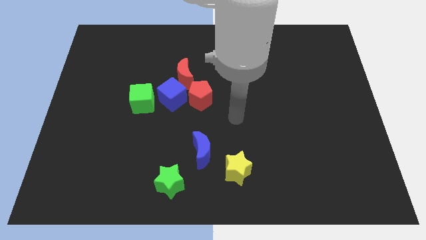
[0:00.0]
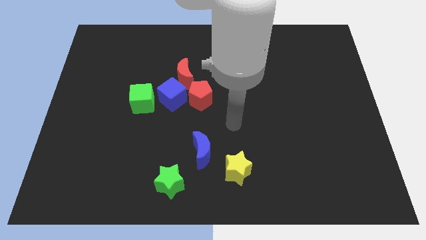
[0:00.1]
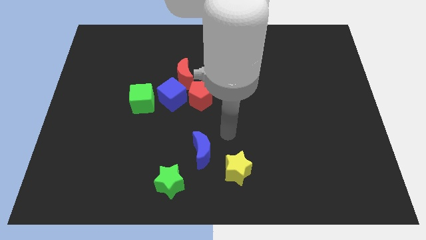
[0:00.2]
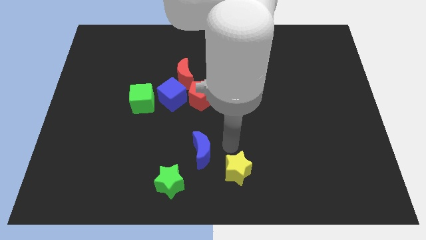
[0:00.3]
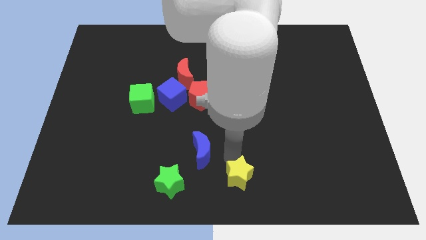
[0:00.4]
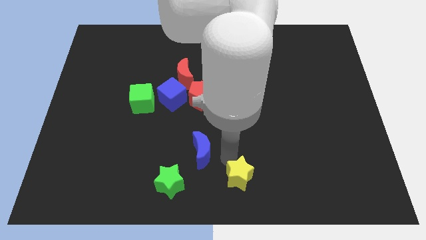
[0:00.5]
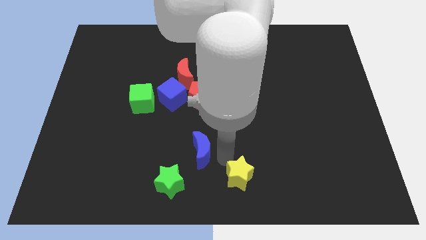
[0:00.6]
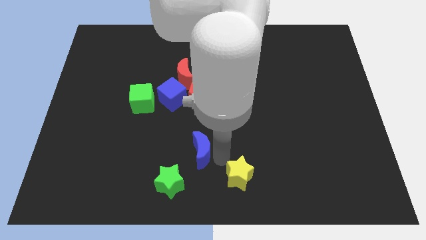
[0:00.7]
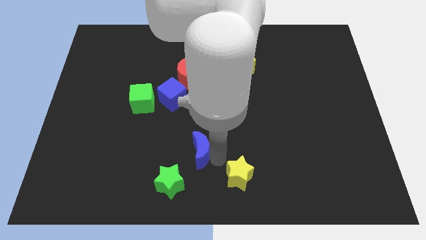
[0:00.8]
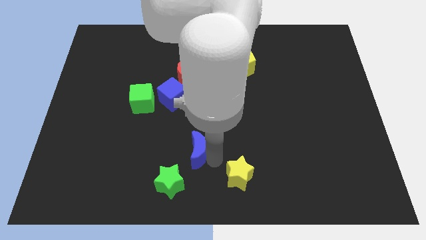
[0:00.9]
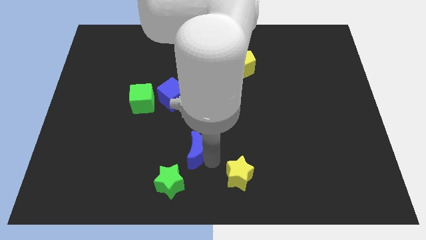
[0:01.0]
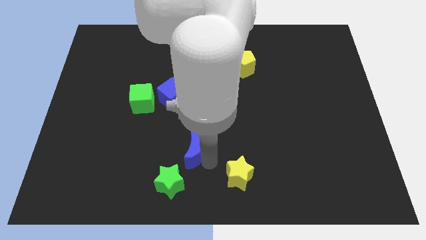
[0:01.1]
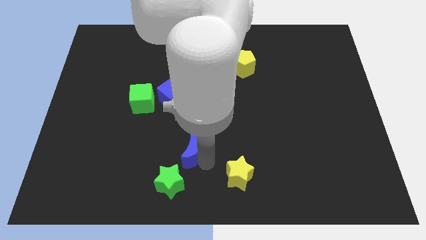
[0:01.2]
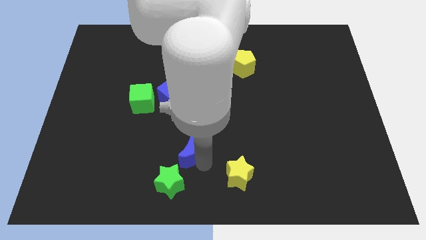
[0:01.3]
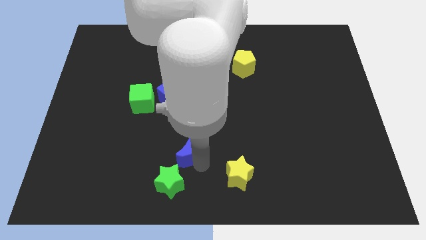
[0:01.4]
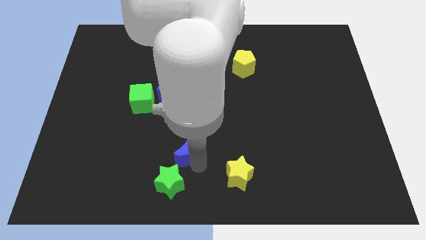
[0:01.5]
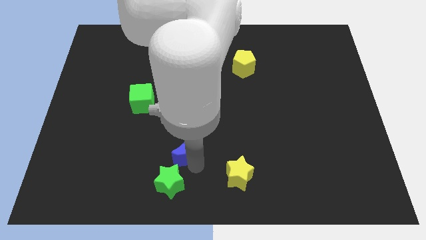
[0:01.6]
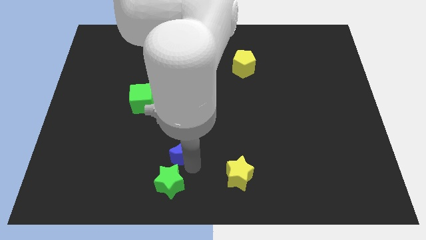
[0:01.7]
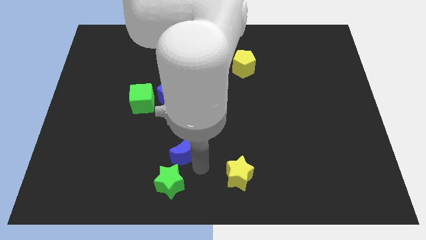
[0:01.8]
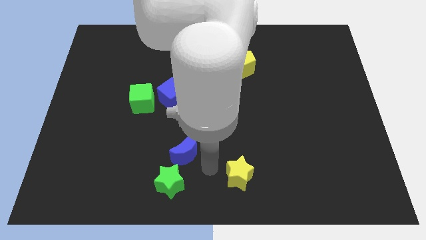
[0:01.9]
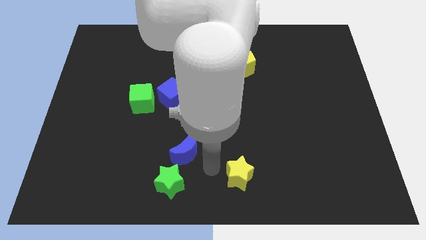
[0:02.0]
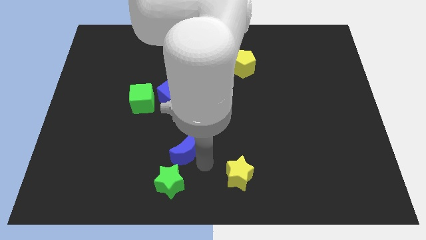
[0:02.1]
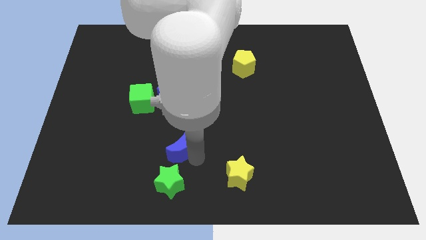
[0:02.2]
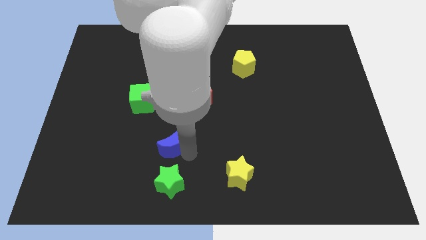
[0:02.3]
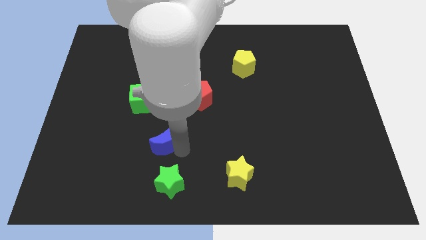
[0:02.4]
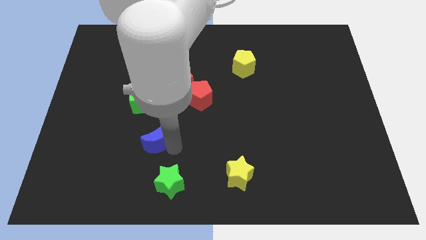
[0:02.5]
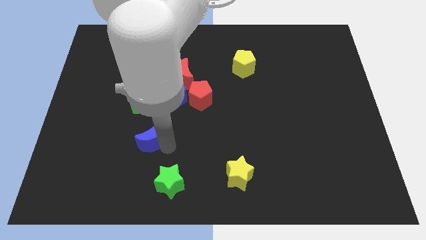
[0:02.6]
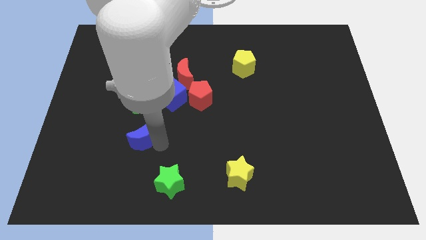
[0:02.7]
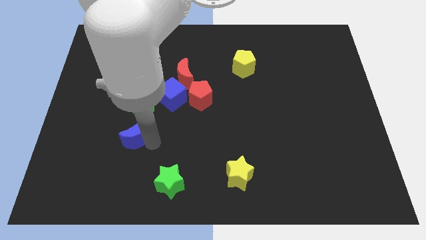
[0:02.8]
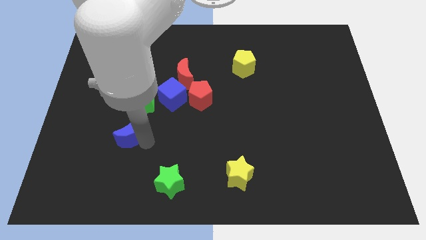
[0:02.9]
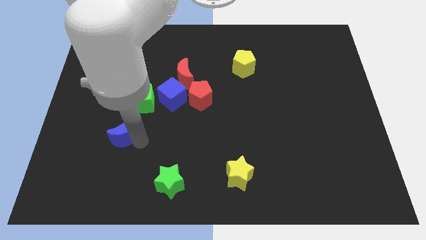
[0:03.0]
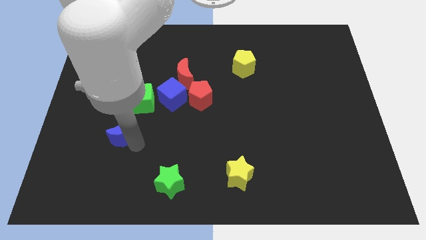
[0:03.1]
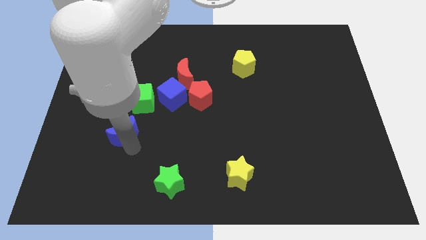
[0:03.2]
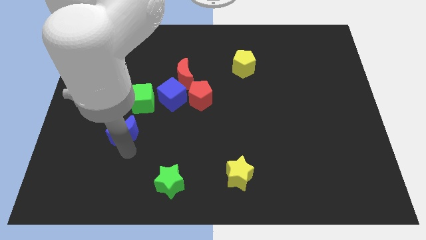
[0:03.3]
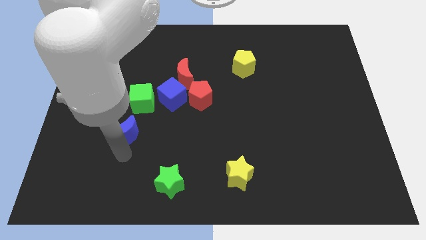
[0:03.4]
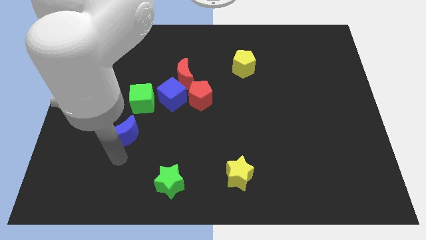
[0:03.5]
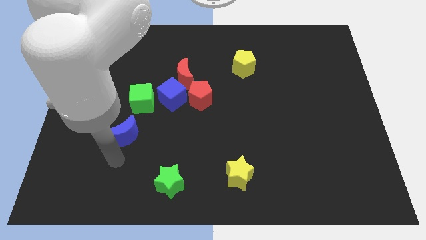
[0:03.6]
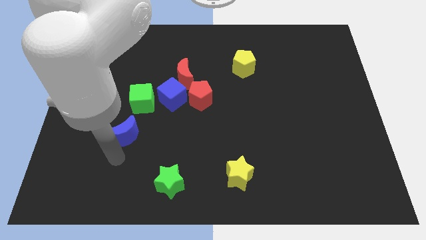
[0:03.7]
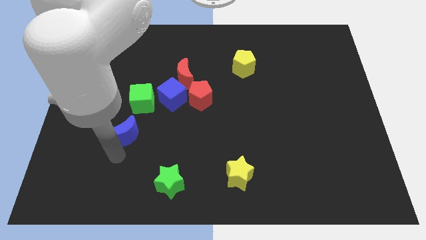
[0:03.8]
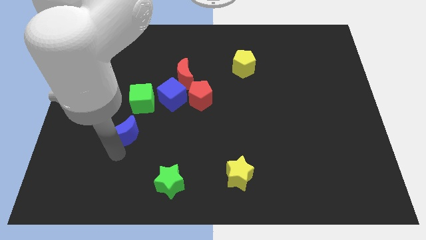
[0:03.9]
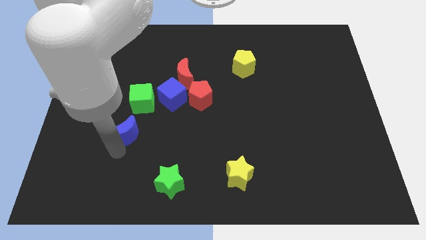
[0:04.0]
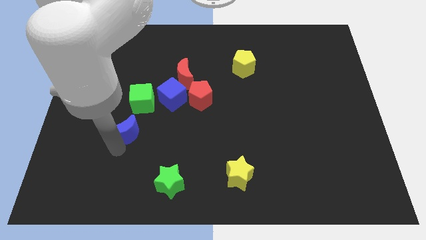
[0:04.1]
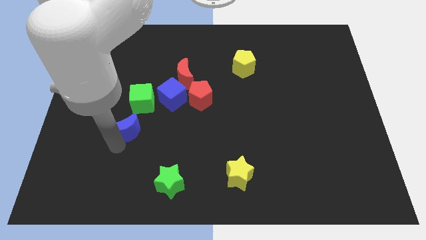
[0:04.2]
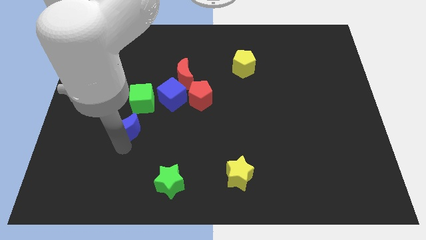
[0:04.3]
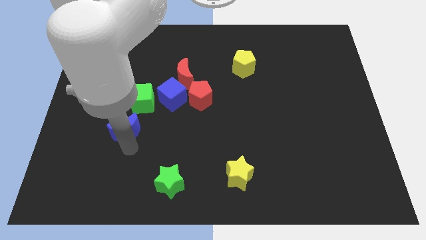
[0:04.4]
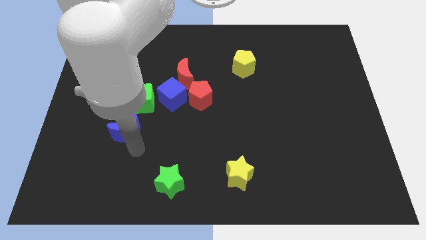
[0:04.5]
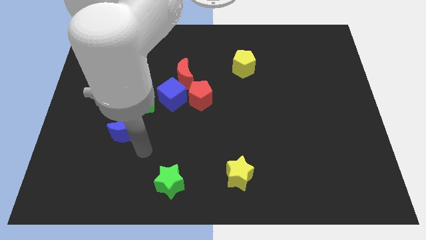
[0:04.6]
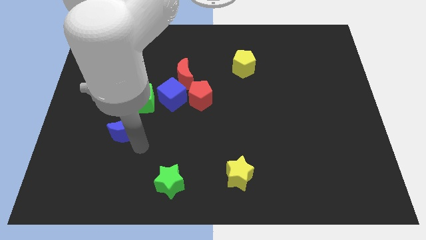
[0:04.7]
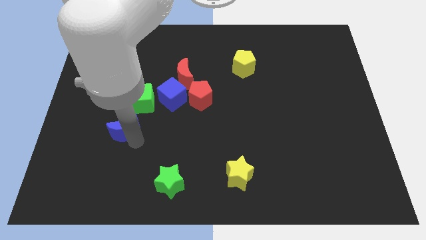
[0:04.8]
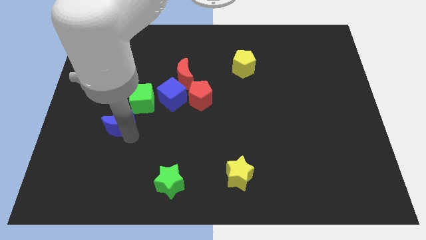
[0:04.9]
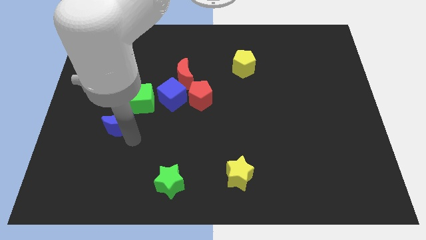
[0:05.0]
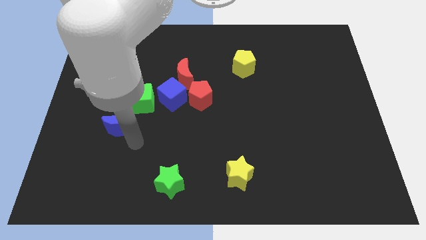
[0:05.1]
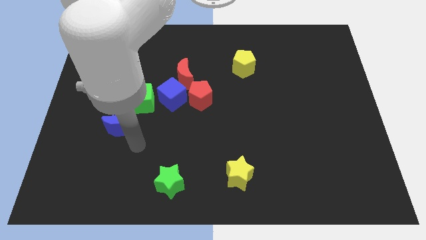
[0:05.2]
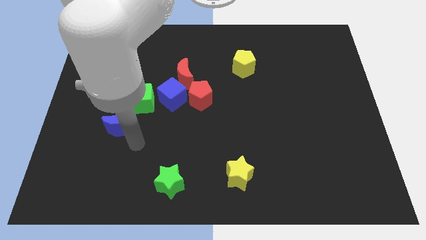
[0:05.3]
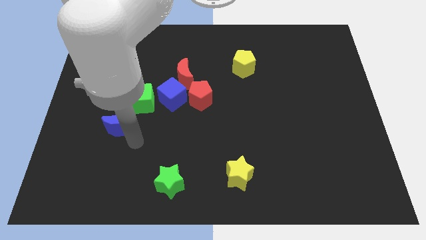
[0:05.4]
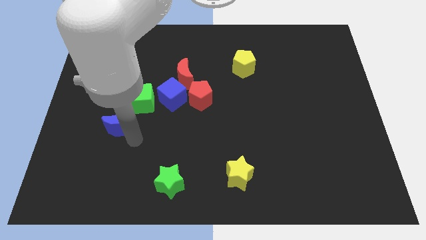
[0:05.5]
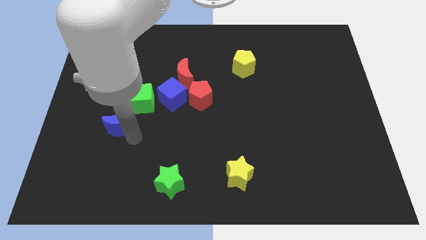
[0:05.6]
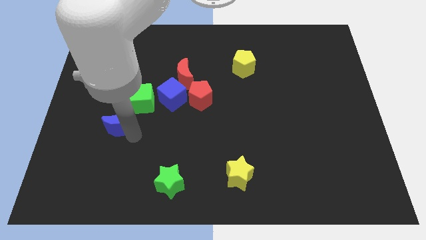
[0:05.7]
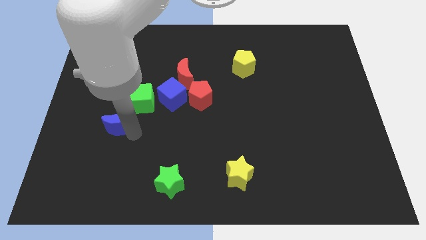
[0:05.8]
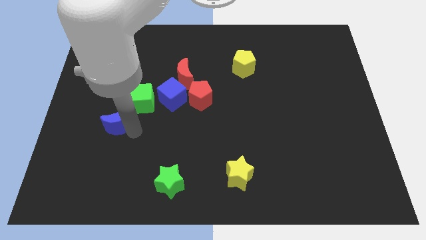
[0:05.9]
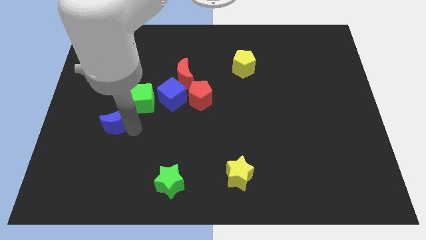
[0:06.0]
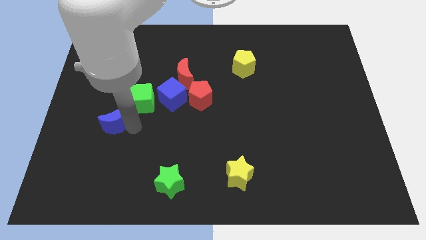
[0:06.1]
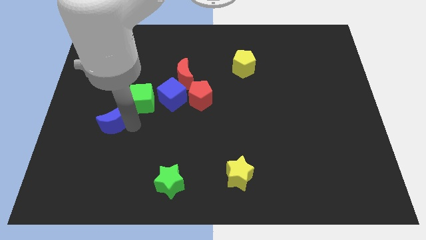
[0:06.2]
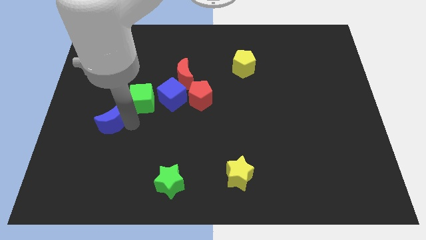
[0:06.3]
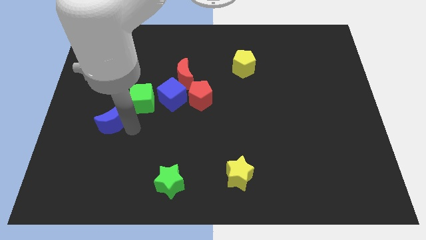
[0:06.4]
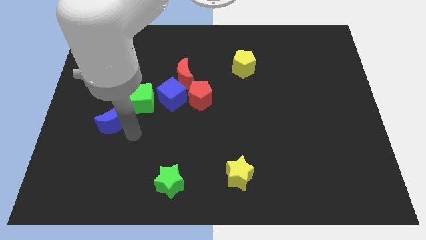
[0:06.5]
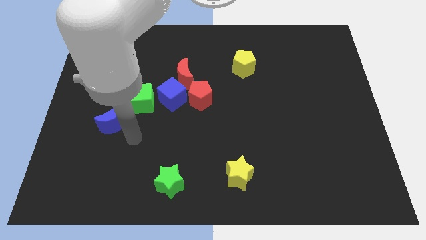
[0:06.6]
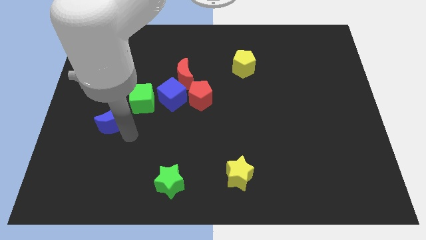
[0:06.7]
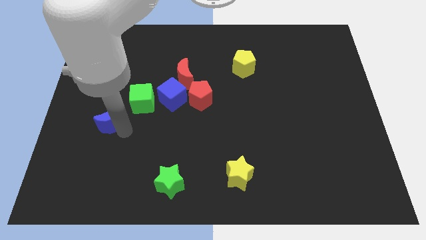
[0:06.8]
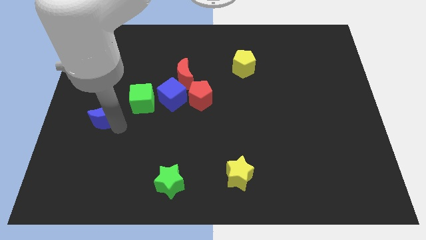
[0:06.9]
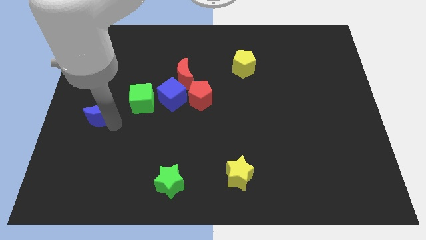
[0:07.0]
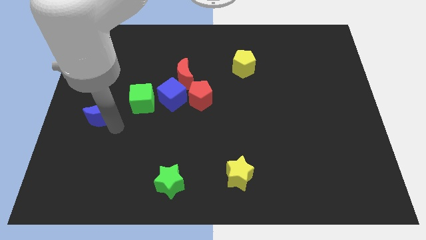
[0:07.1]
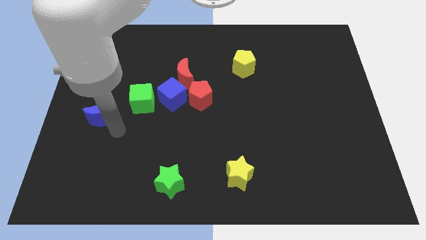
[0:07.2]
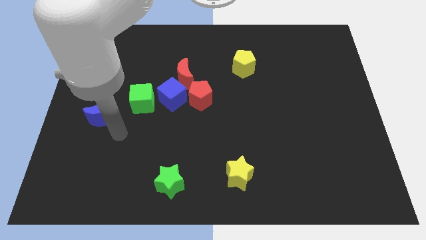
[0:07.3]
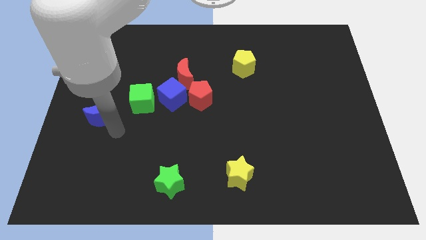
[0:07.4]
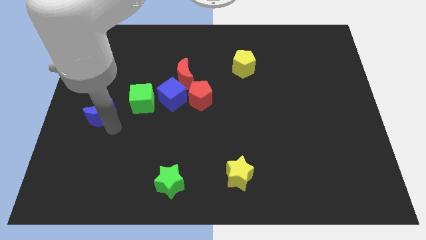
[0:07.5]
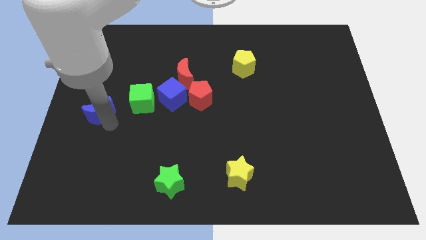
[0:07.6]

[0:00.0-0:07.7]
slide the blue moon to the left side of the board
